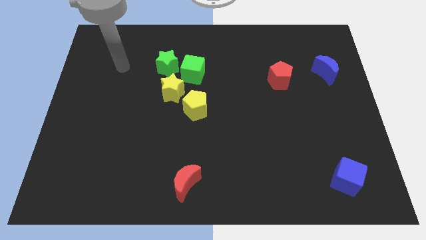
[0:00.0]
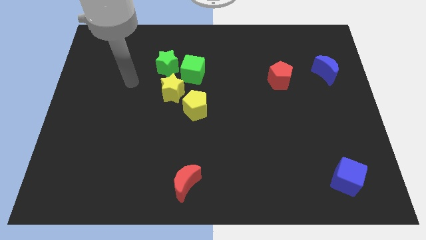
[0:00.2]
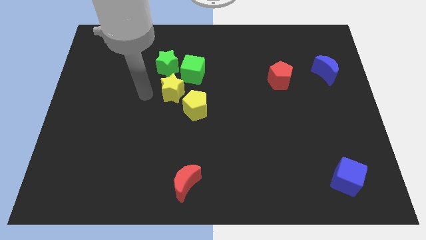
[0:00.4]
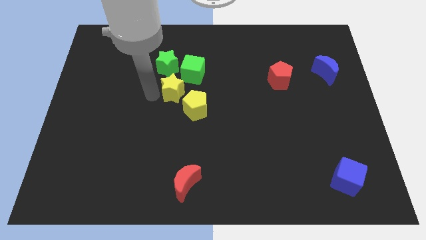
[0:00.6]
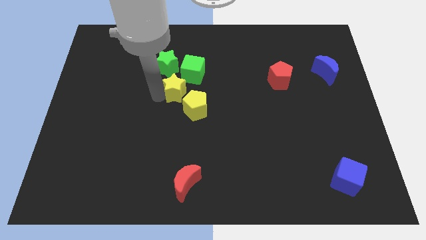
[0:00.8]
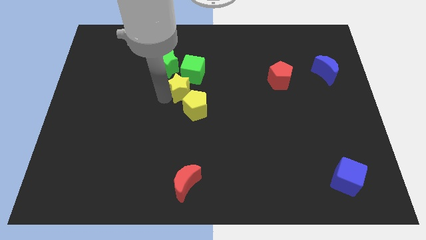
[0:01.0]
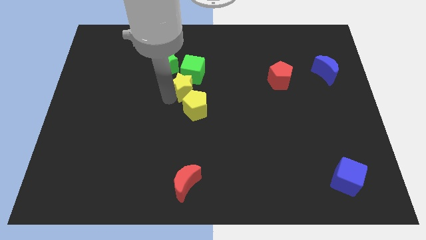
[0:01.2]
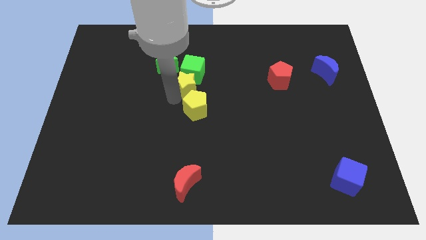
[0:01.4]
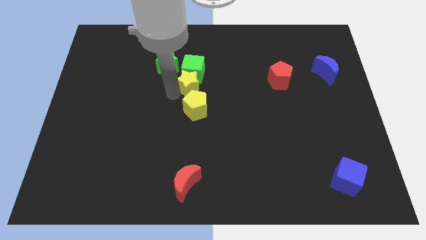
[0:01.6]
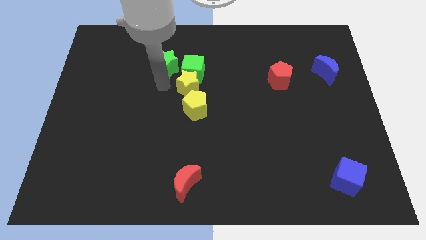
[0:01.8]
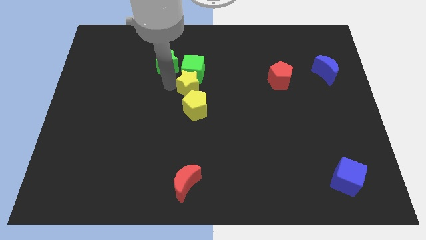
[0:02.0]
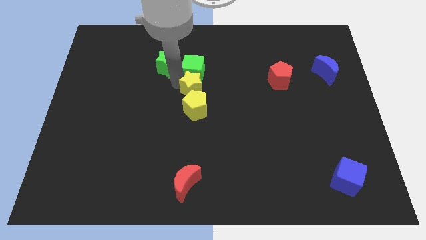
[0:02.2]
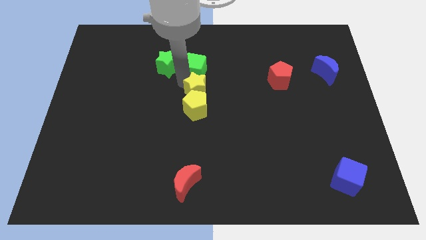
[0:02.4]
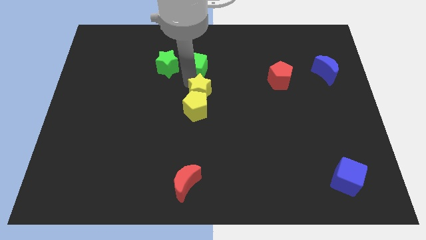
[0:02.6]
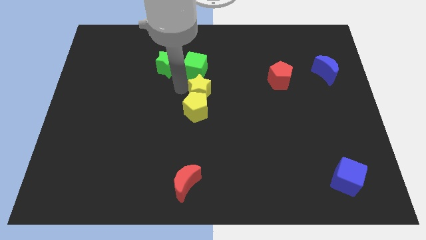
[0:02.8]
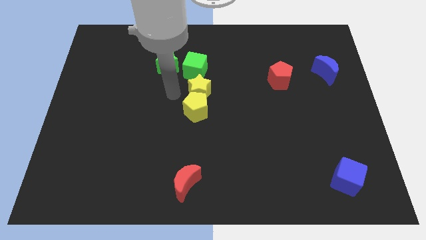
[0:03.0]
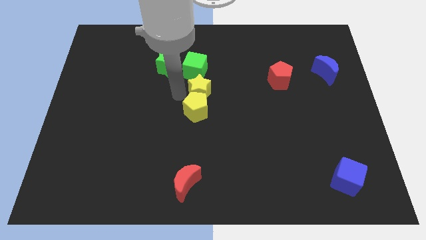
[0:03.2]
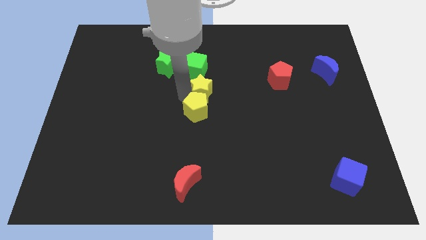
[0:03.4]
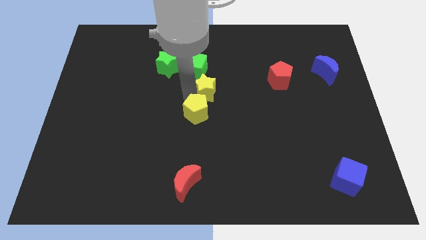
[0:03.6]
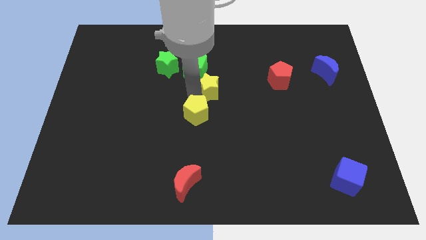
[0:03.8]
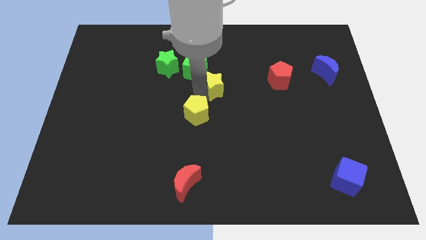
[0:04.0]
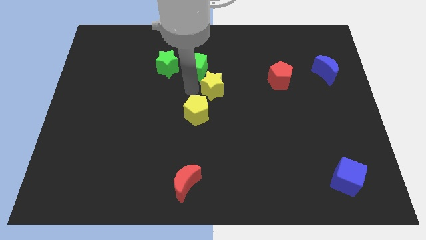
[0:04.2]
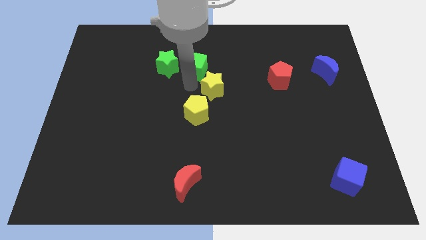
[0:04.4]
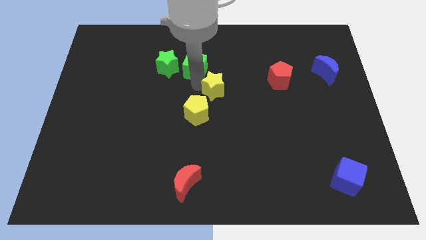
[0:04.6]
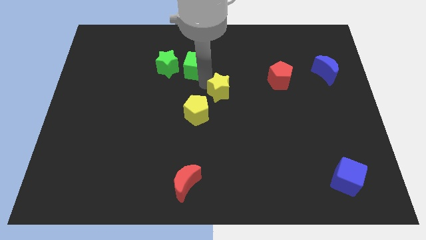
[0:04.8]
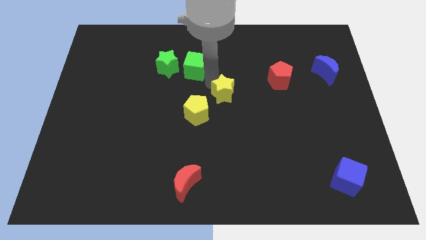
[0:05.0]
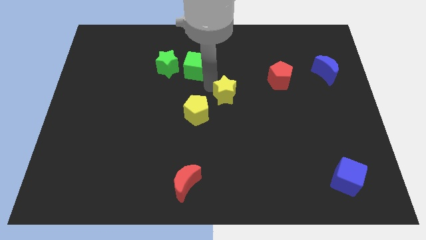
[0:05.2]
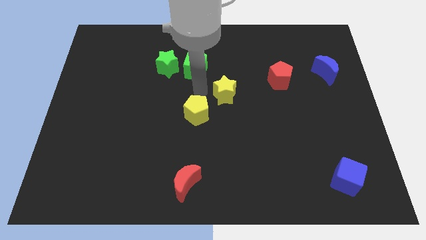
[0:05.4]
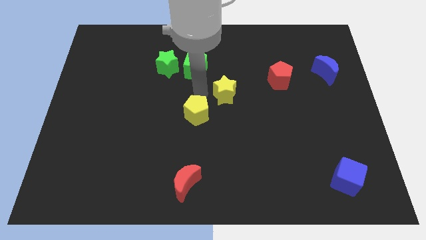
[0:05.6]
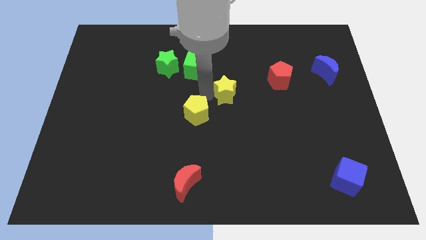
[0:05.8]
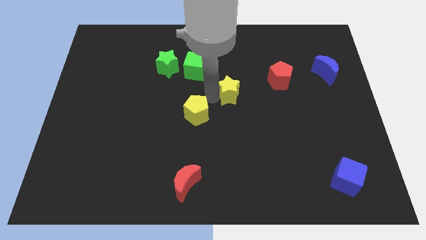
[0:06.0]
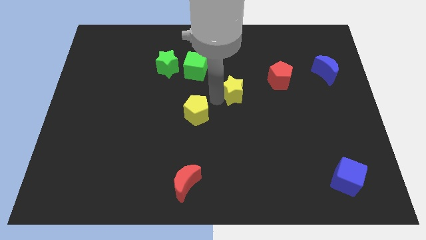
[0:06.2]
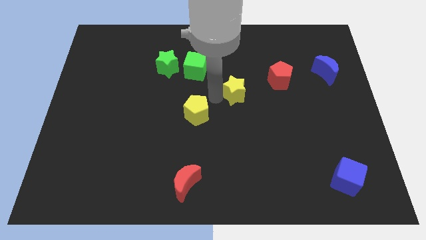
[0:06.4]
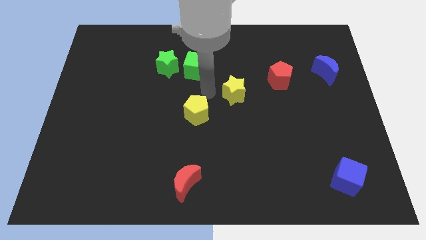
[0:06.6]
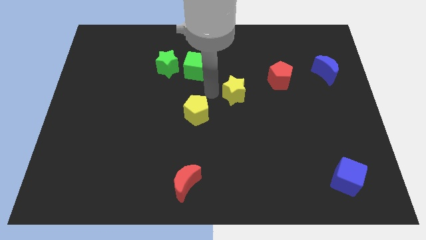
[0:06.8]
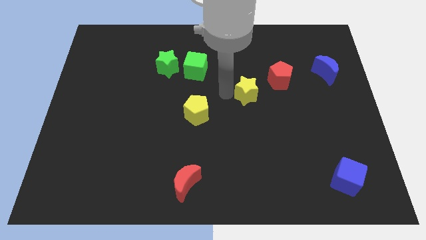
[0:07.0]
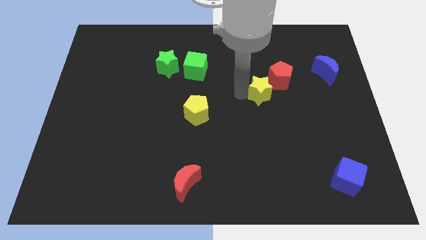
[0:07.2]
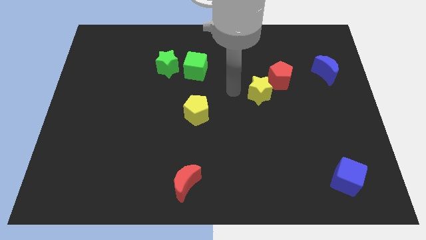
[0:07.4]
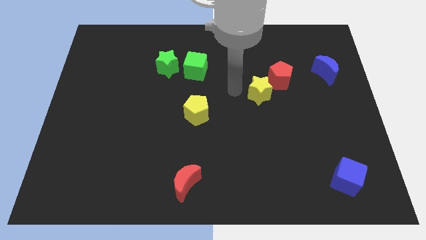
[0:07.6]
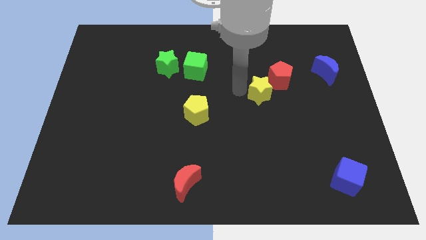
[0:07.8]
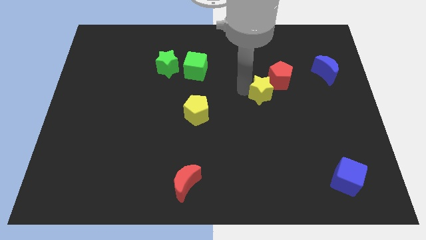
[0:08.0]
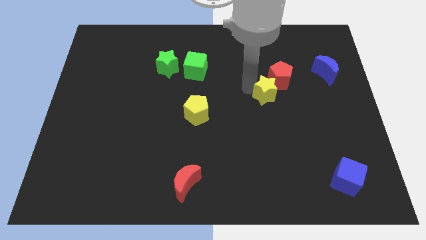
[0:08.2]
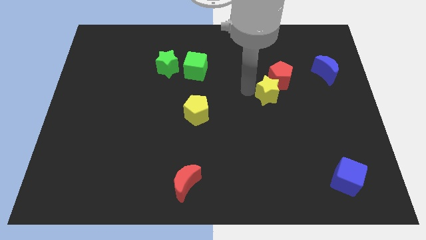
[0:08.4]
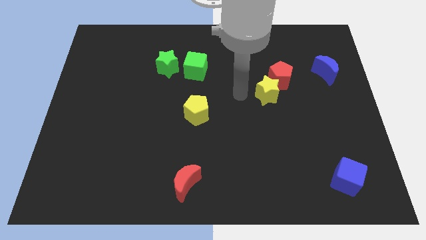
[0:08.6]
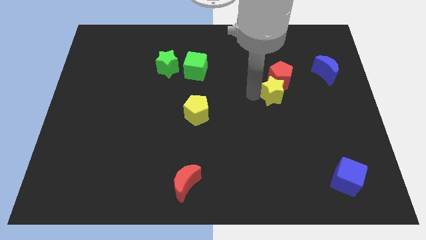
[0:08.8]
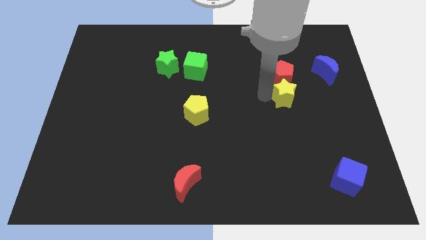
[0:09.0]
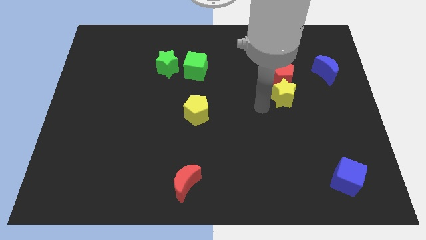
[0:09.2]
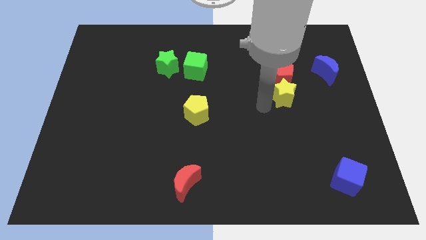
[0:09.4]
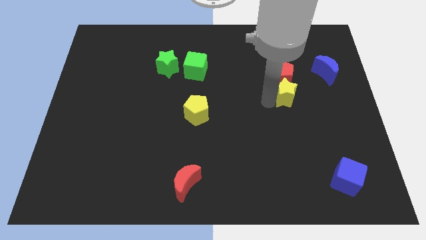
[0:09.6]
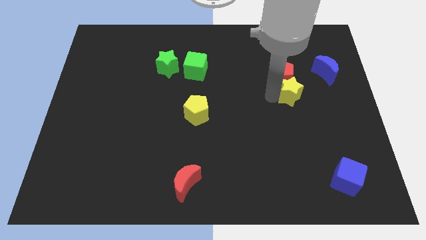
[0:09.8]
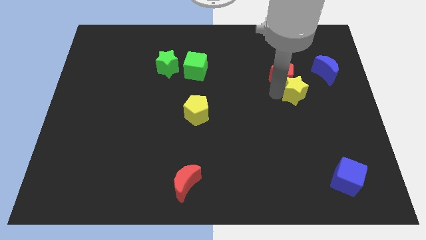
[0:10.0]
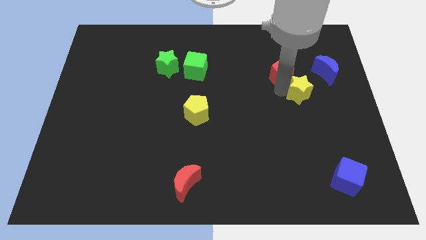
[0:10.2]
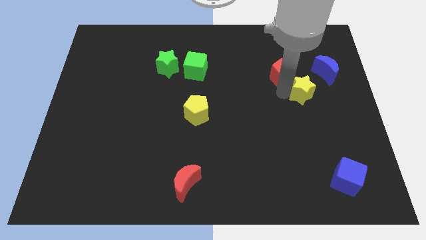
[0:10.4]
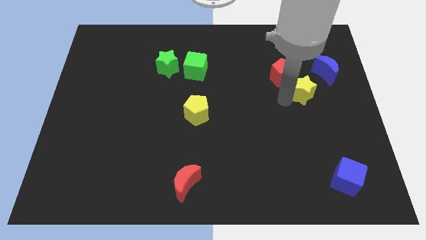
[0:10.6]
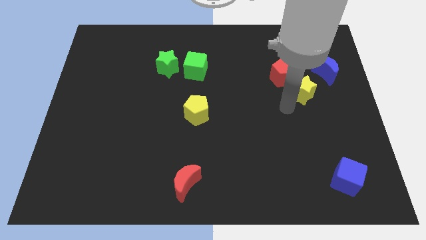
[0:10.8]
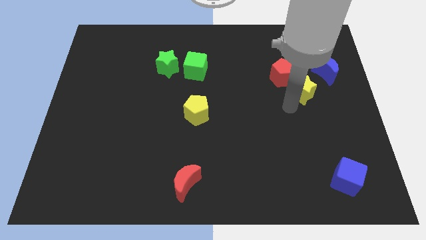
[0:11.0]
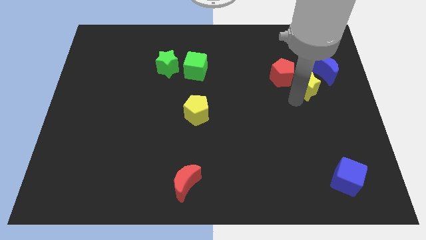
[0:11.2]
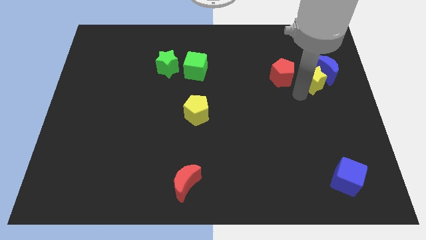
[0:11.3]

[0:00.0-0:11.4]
move the yellow star next to the blue moon

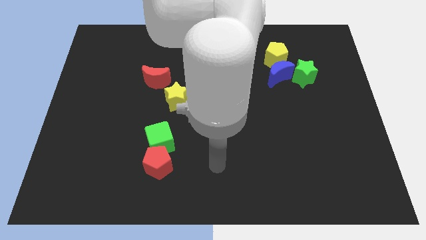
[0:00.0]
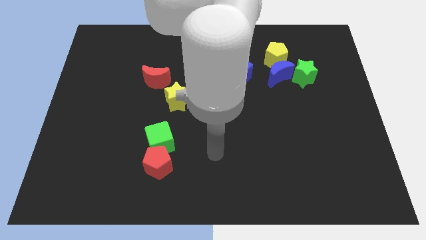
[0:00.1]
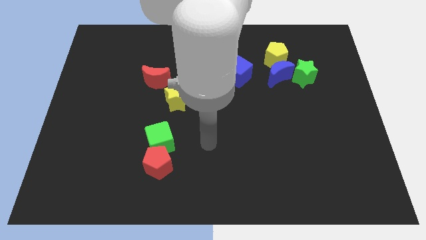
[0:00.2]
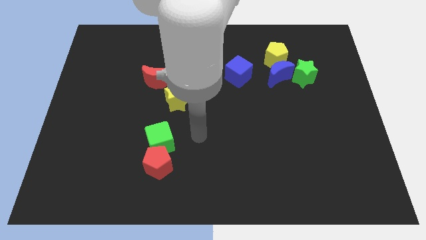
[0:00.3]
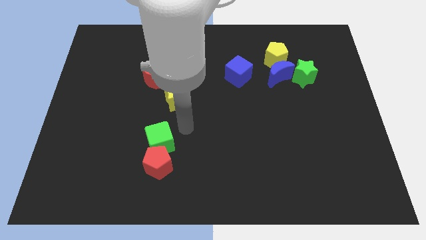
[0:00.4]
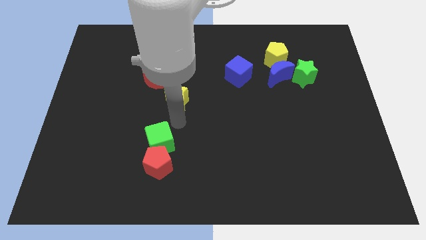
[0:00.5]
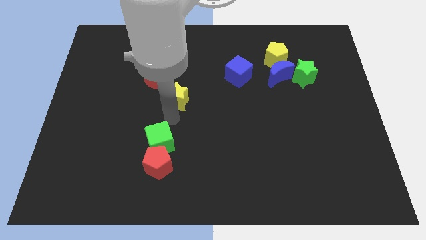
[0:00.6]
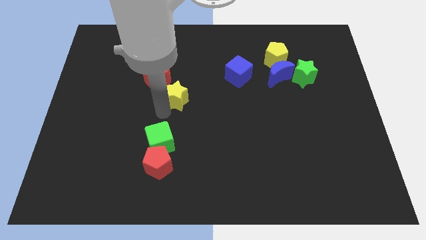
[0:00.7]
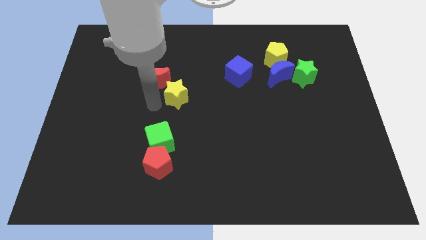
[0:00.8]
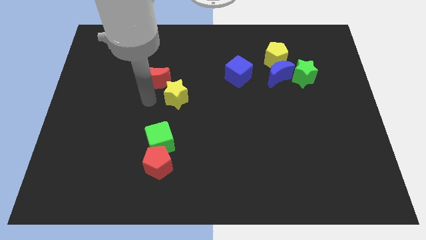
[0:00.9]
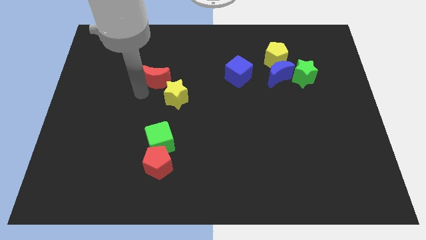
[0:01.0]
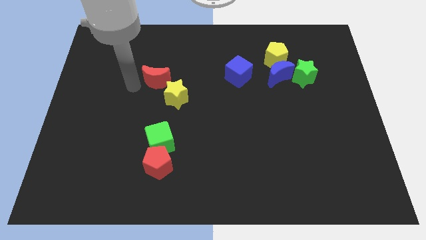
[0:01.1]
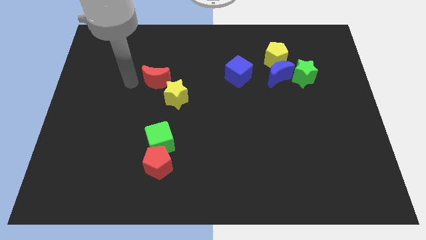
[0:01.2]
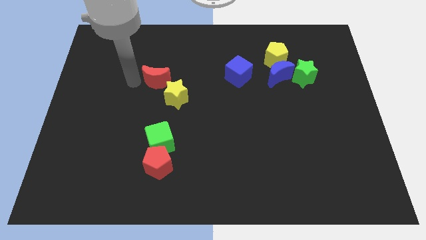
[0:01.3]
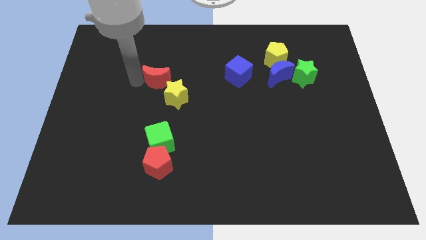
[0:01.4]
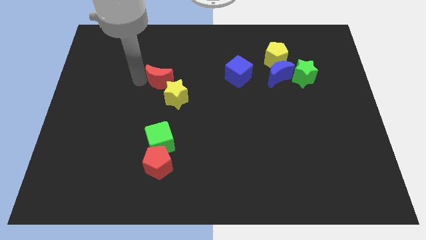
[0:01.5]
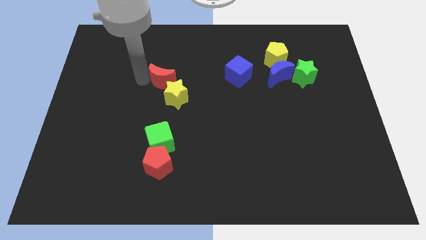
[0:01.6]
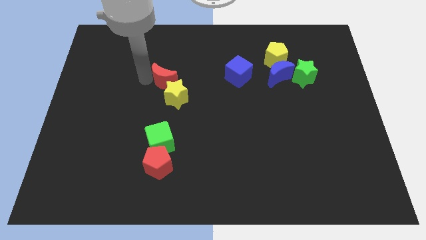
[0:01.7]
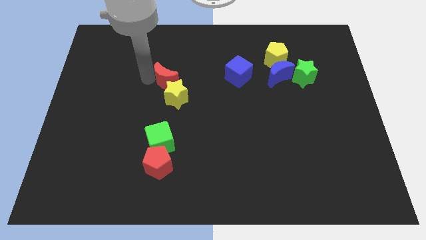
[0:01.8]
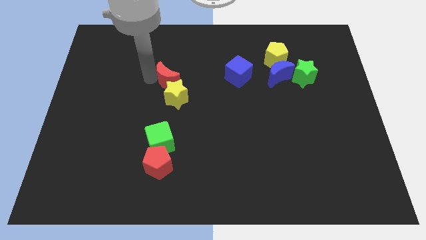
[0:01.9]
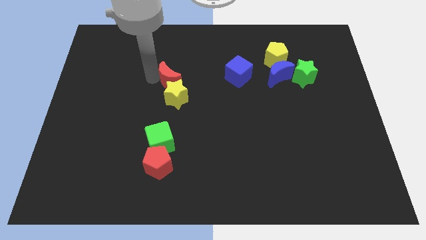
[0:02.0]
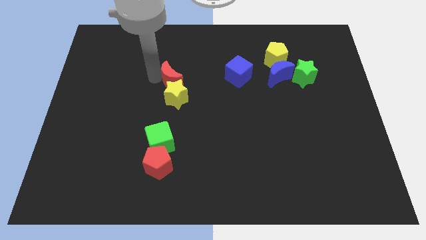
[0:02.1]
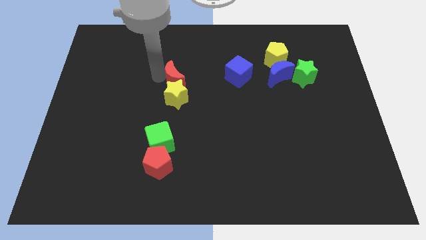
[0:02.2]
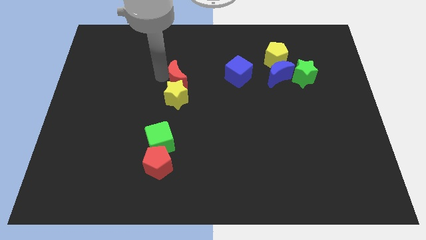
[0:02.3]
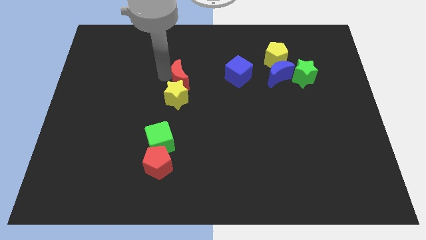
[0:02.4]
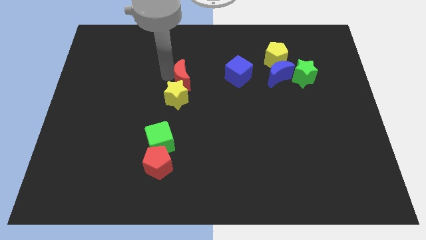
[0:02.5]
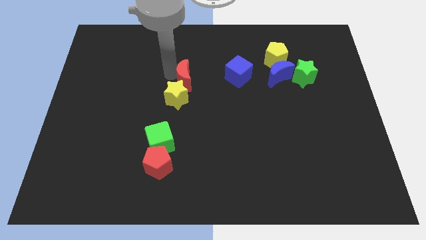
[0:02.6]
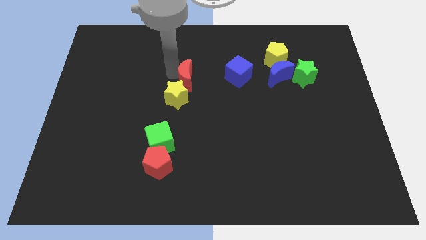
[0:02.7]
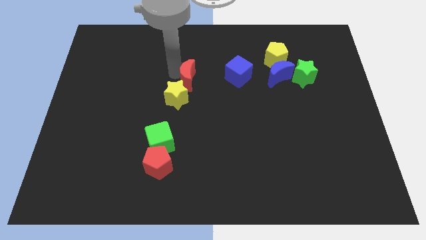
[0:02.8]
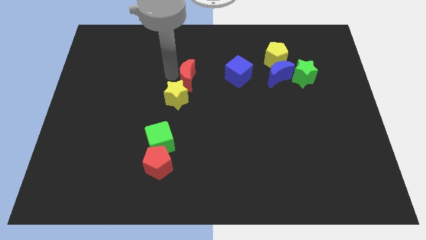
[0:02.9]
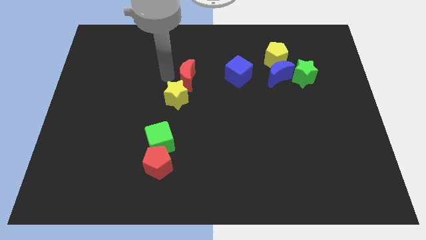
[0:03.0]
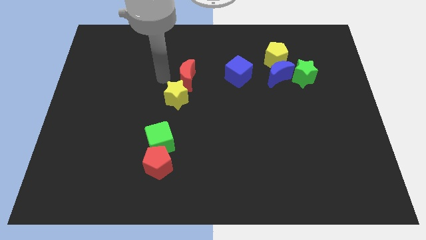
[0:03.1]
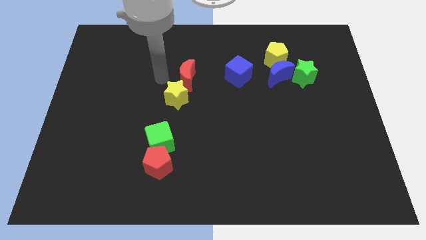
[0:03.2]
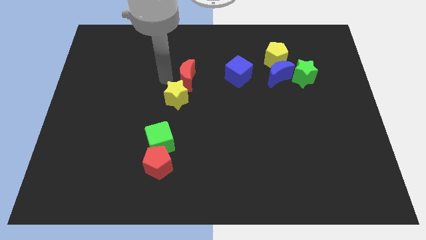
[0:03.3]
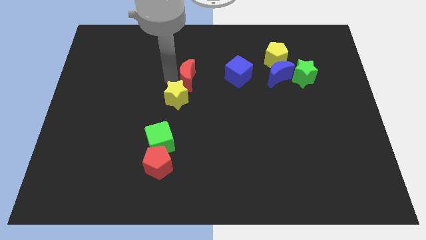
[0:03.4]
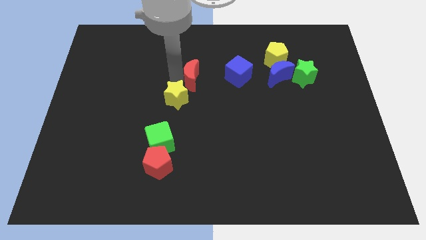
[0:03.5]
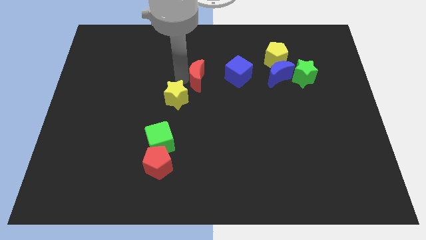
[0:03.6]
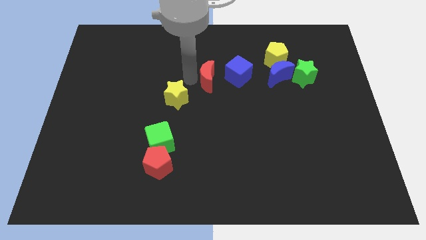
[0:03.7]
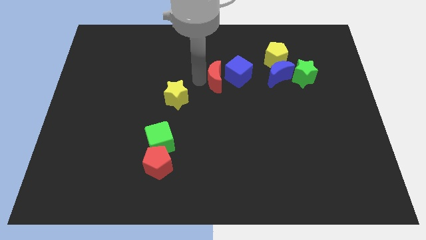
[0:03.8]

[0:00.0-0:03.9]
put the red moon towards the blue cube
